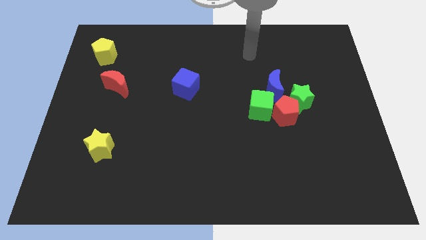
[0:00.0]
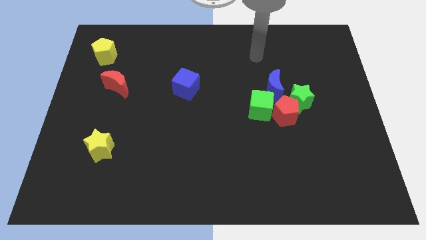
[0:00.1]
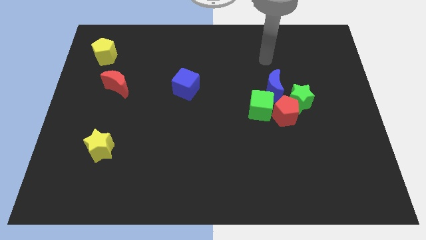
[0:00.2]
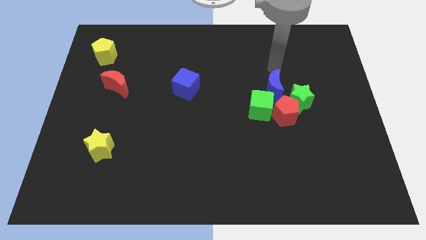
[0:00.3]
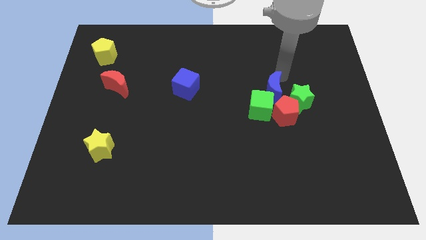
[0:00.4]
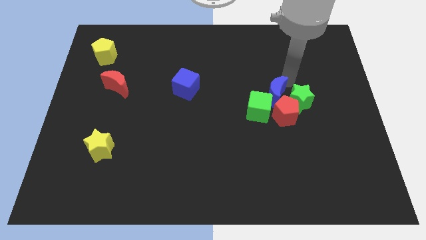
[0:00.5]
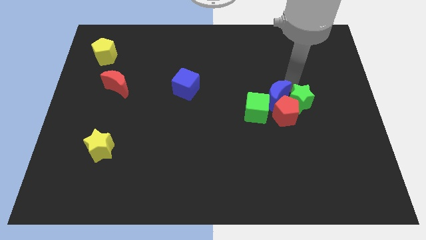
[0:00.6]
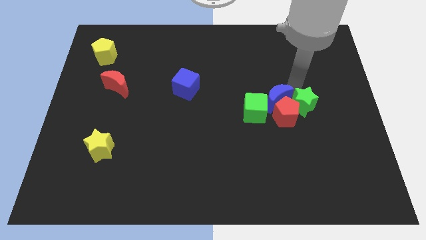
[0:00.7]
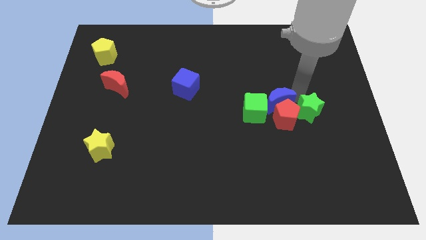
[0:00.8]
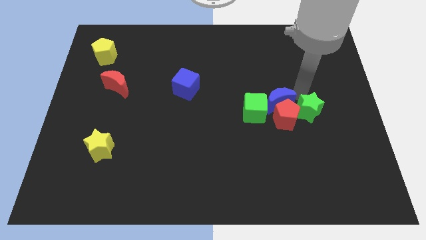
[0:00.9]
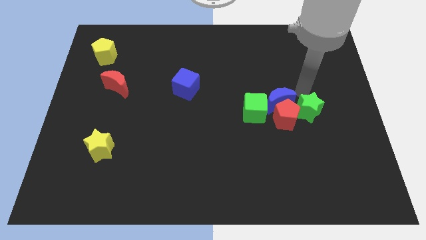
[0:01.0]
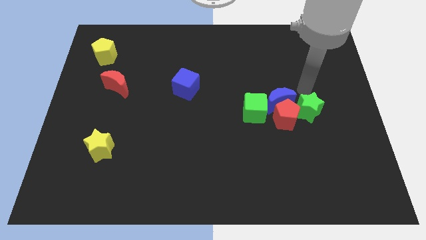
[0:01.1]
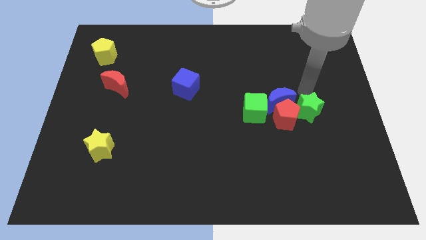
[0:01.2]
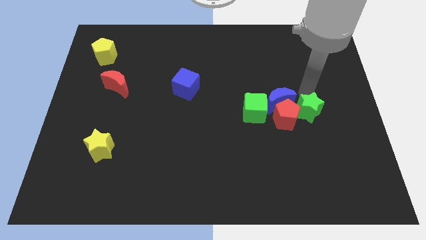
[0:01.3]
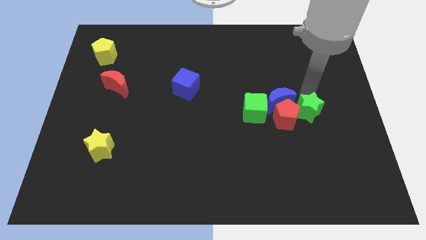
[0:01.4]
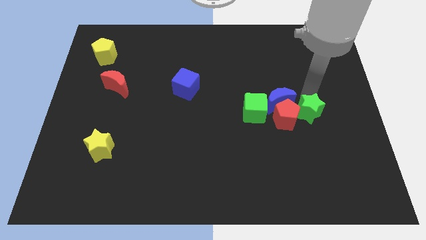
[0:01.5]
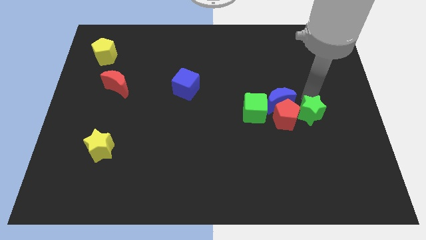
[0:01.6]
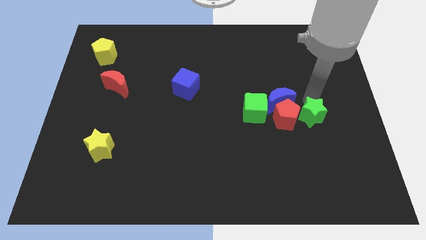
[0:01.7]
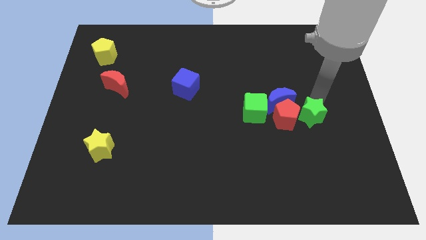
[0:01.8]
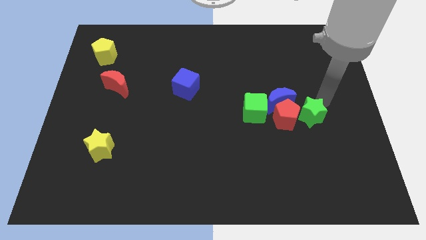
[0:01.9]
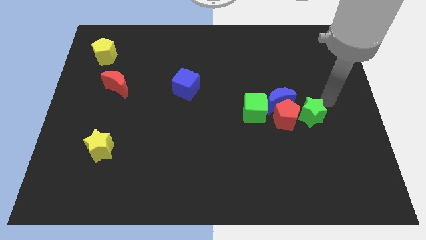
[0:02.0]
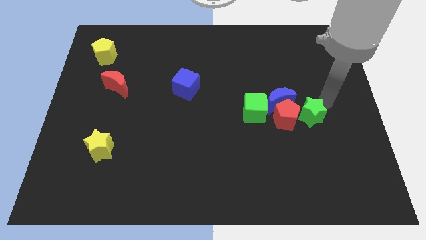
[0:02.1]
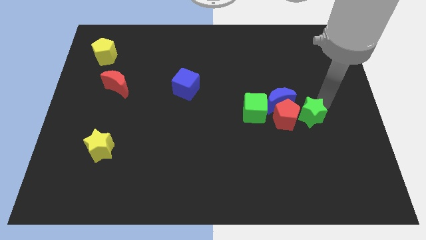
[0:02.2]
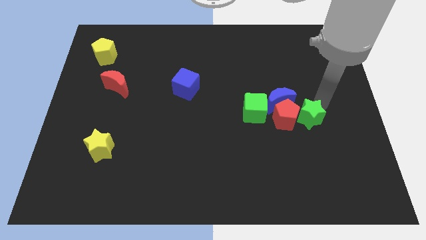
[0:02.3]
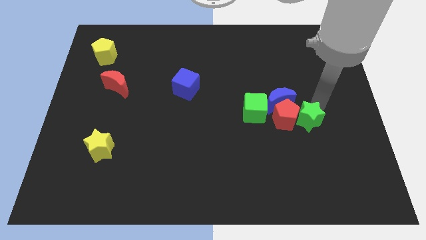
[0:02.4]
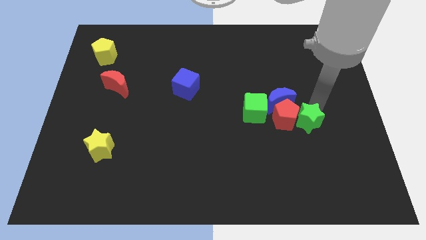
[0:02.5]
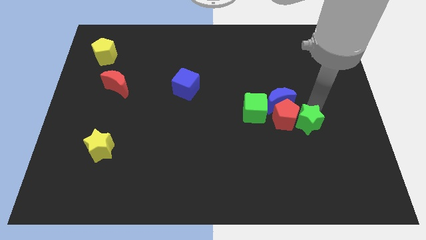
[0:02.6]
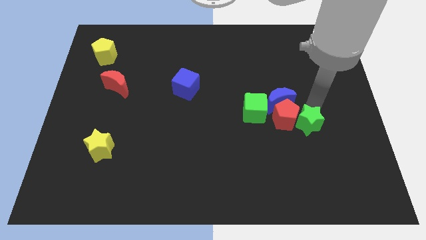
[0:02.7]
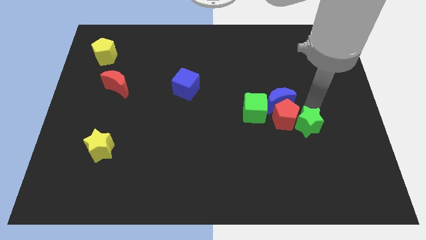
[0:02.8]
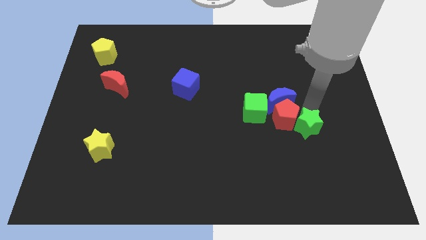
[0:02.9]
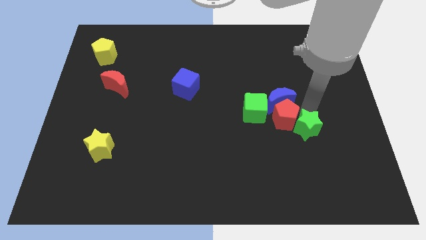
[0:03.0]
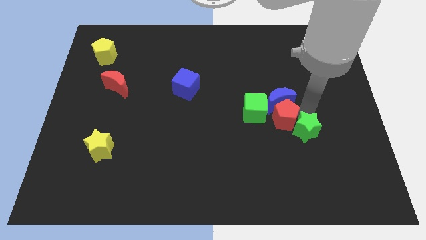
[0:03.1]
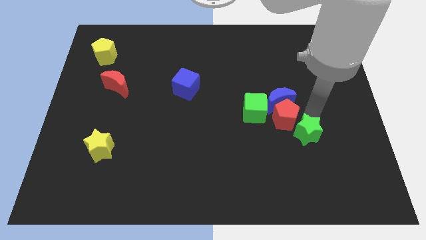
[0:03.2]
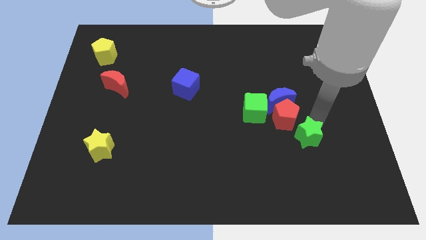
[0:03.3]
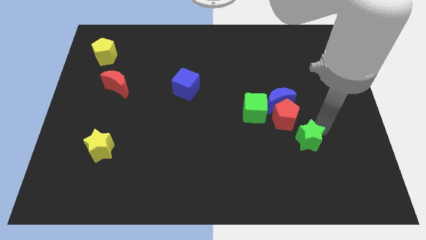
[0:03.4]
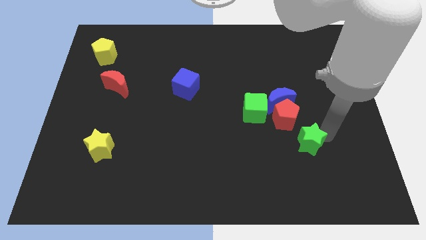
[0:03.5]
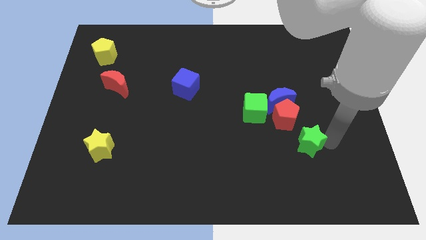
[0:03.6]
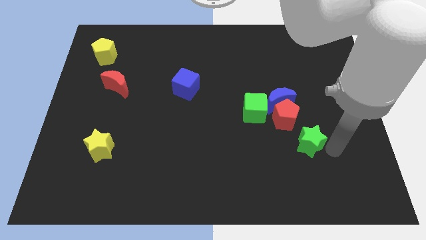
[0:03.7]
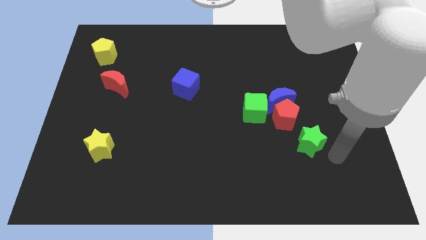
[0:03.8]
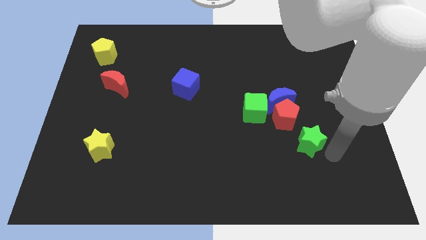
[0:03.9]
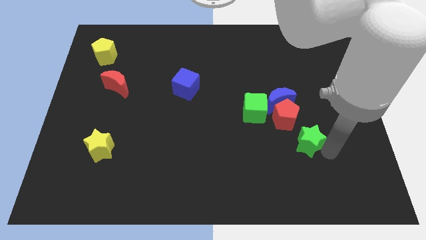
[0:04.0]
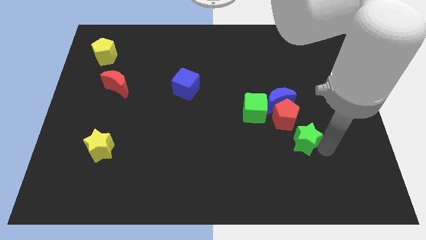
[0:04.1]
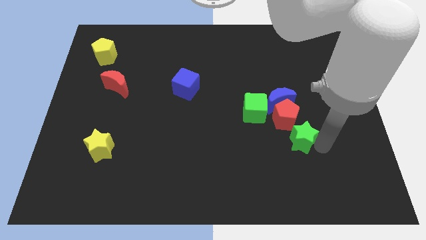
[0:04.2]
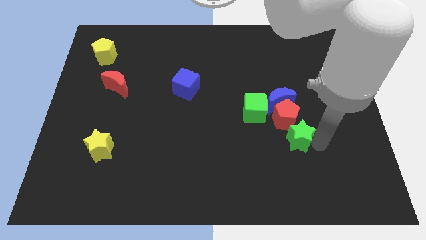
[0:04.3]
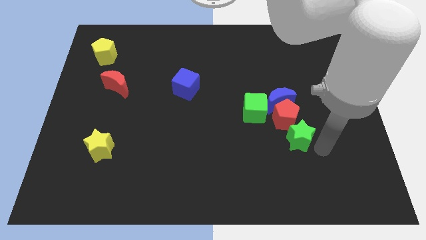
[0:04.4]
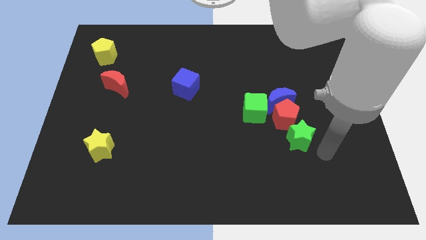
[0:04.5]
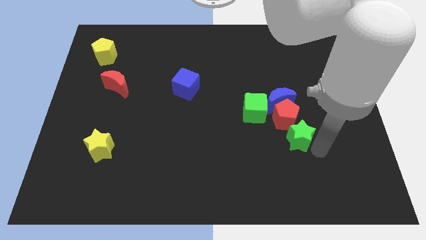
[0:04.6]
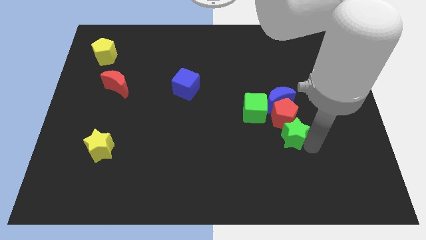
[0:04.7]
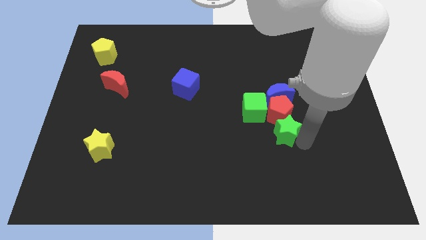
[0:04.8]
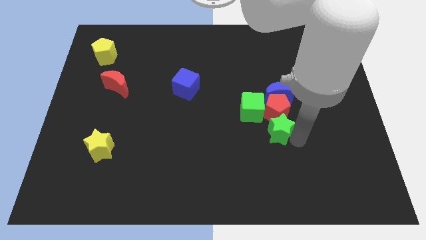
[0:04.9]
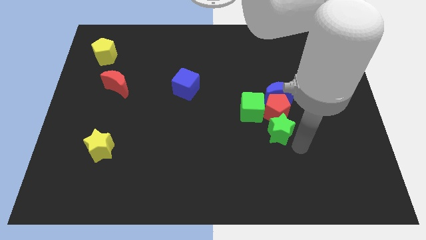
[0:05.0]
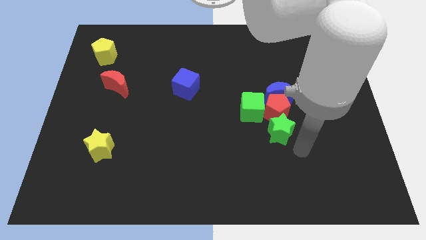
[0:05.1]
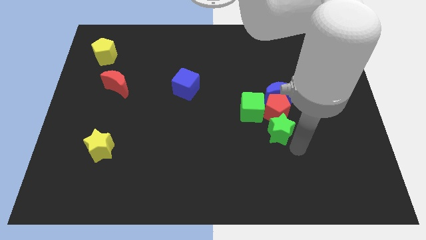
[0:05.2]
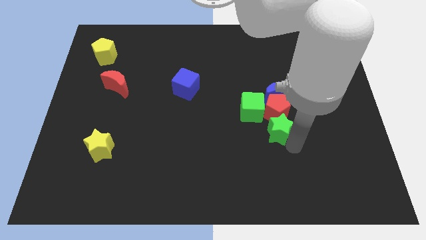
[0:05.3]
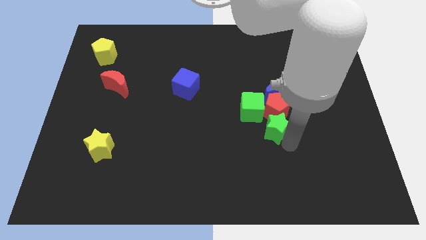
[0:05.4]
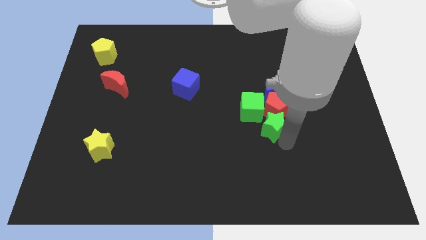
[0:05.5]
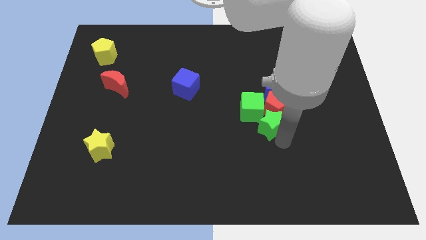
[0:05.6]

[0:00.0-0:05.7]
push the green star close to the green cube

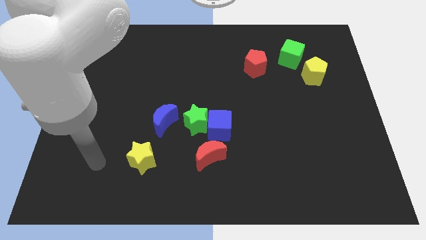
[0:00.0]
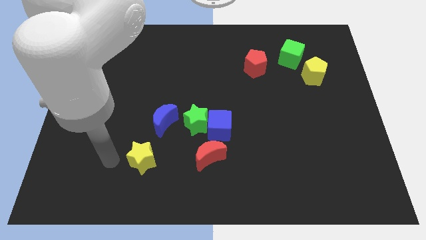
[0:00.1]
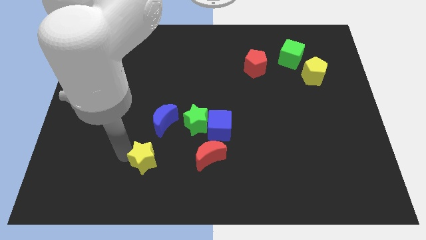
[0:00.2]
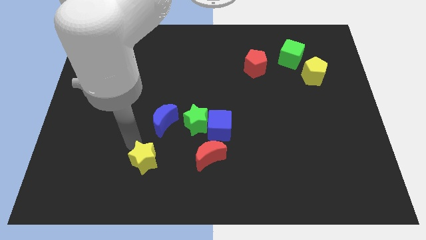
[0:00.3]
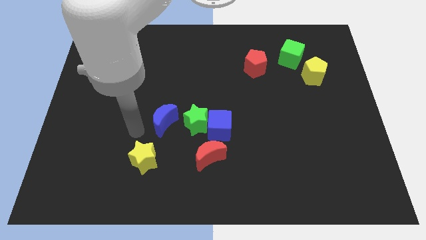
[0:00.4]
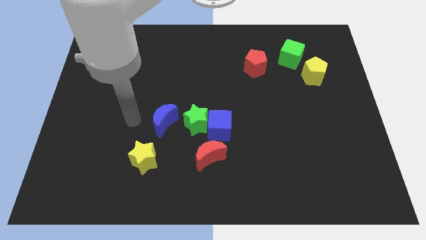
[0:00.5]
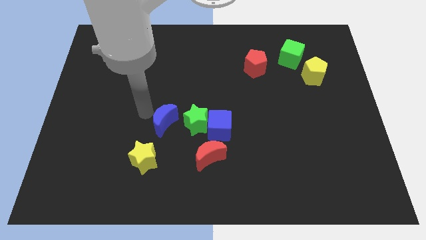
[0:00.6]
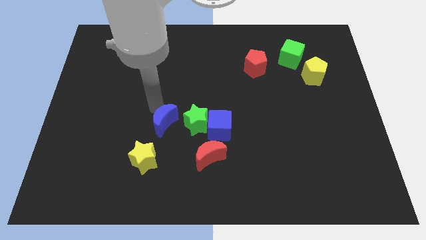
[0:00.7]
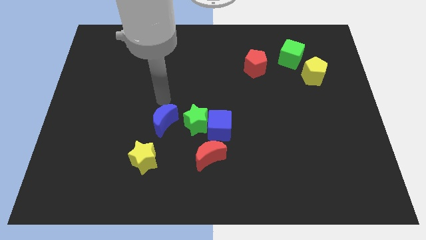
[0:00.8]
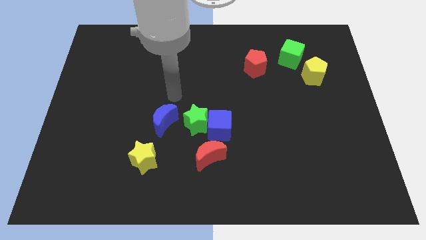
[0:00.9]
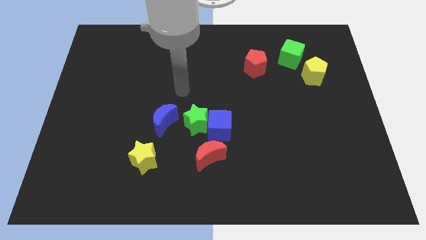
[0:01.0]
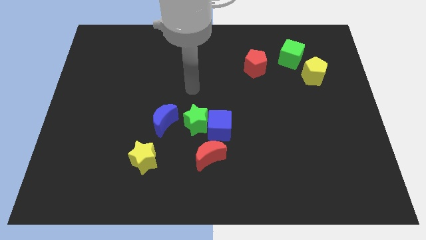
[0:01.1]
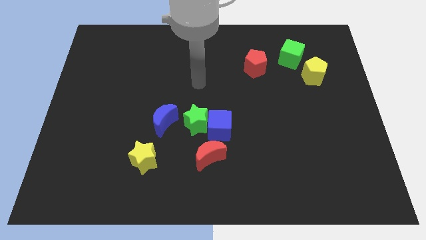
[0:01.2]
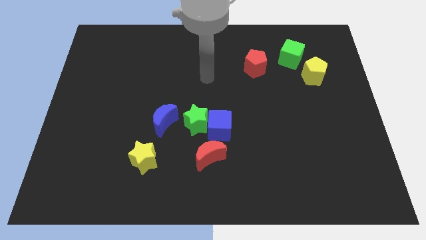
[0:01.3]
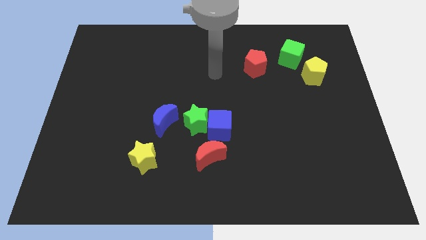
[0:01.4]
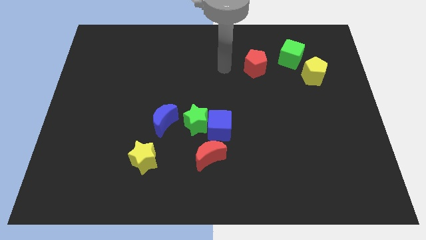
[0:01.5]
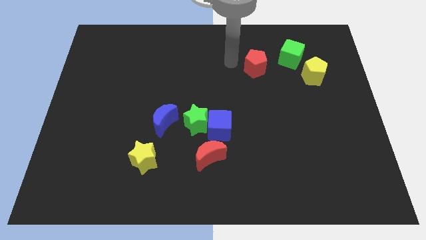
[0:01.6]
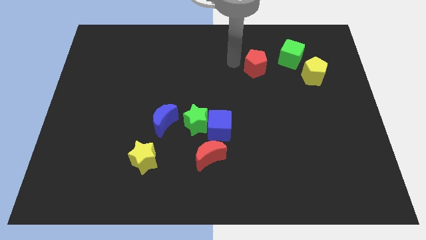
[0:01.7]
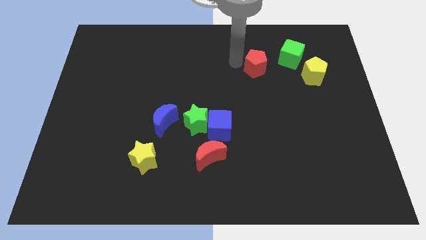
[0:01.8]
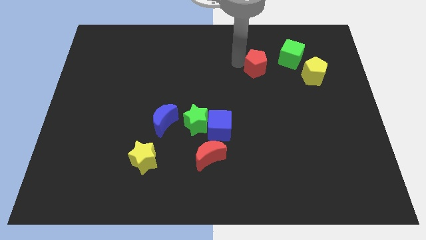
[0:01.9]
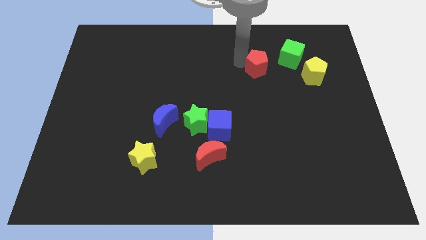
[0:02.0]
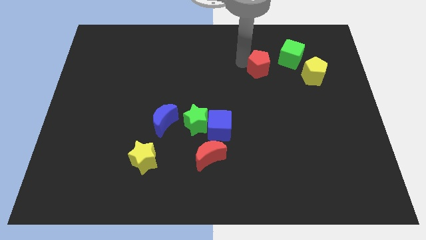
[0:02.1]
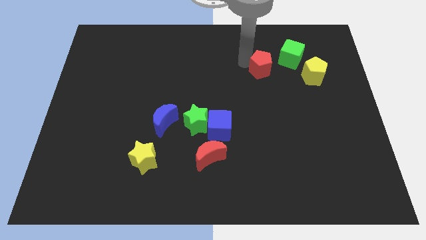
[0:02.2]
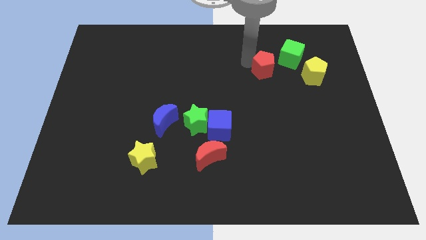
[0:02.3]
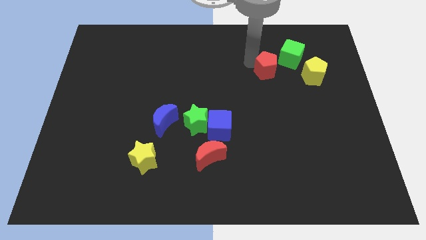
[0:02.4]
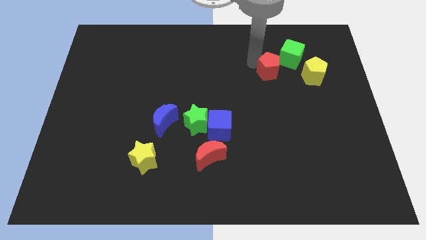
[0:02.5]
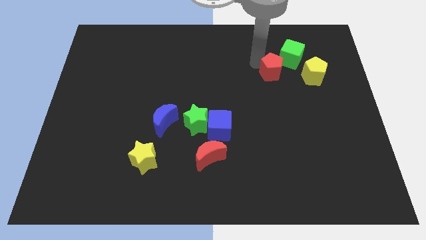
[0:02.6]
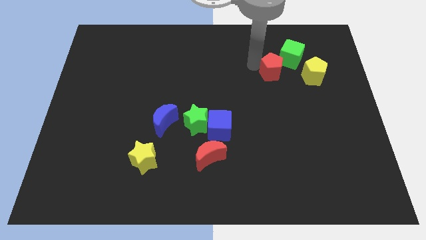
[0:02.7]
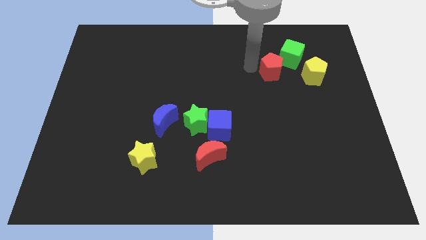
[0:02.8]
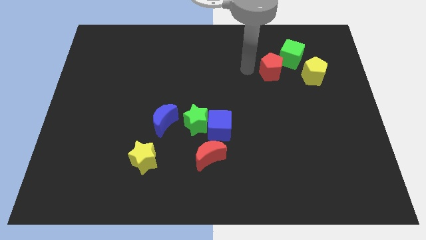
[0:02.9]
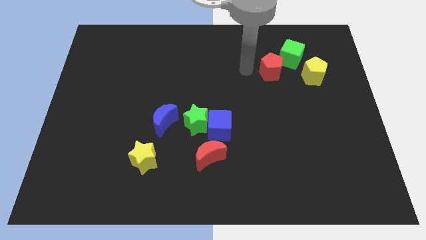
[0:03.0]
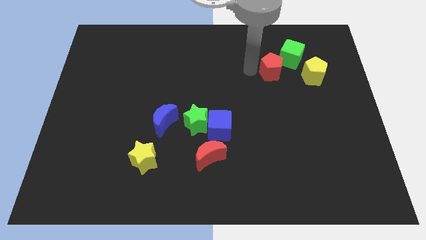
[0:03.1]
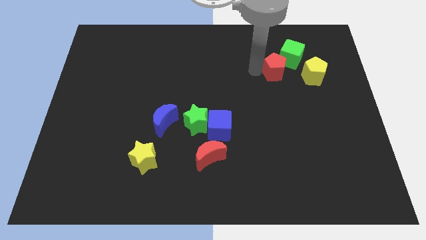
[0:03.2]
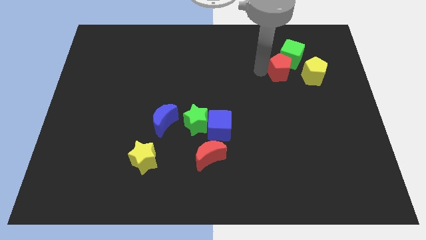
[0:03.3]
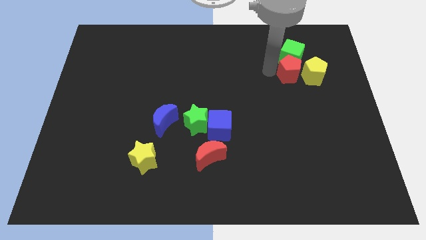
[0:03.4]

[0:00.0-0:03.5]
push the red pentagon to the yellow pentagon
